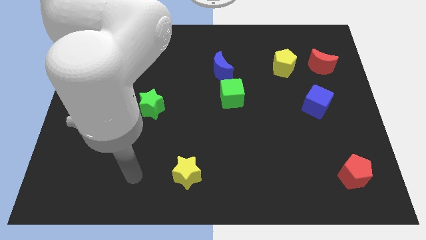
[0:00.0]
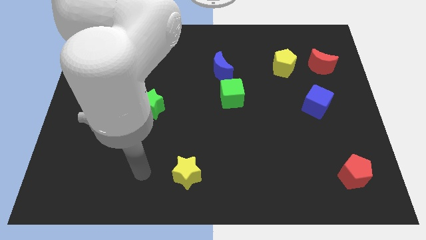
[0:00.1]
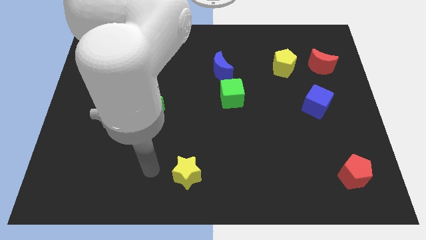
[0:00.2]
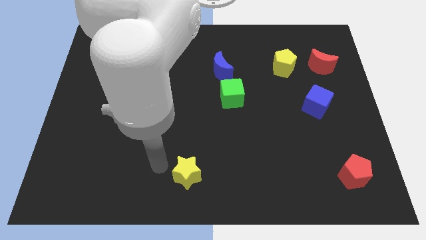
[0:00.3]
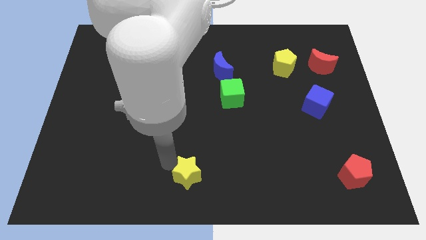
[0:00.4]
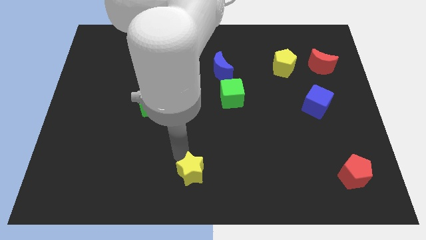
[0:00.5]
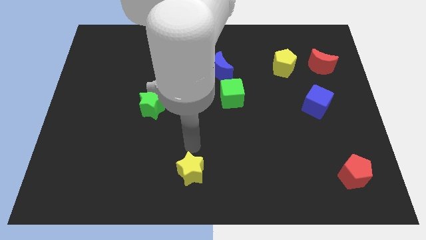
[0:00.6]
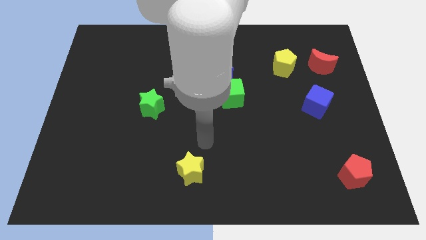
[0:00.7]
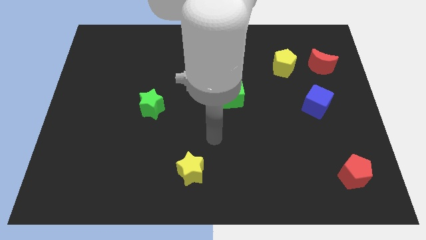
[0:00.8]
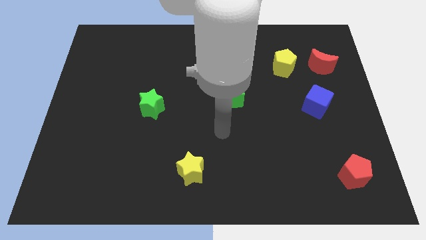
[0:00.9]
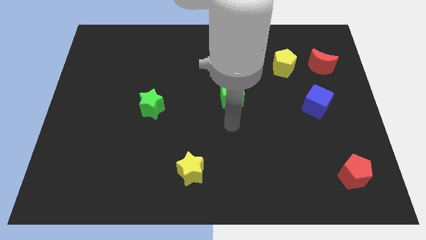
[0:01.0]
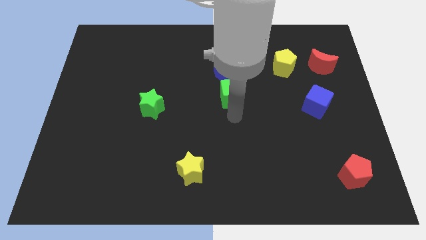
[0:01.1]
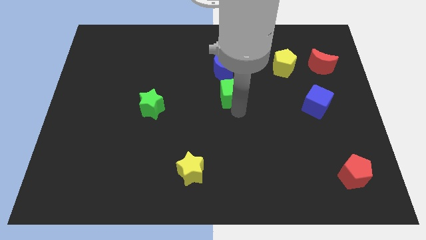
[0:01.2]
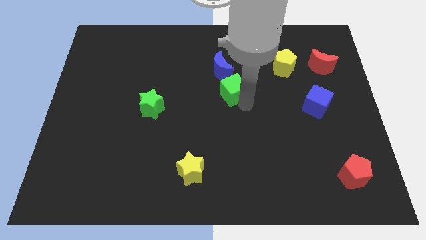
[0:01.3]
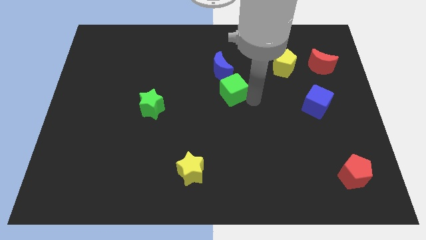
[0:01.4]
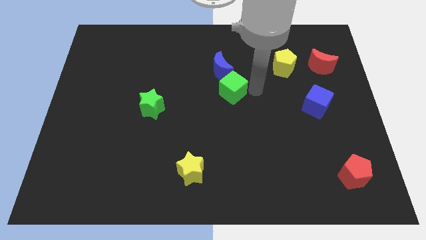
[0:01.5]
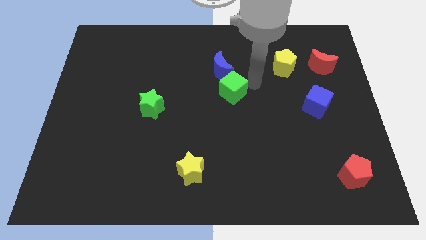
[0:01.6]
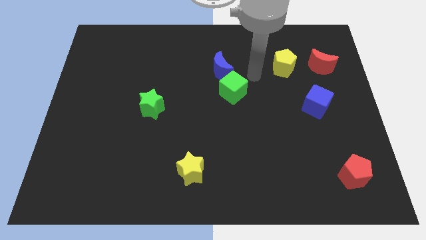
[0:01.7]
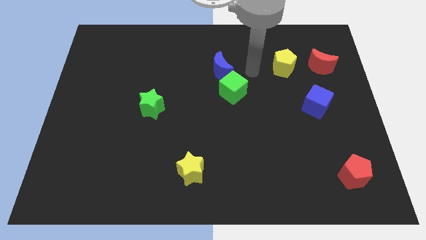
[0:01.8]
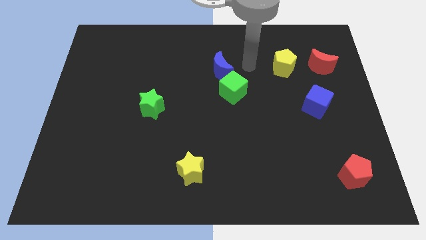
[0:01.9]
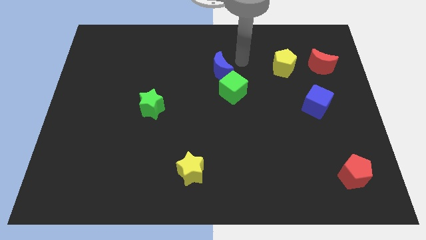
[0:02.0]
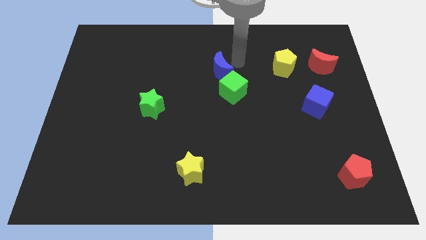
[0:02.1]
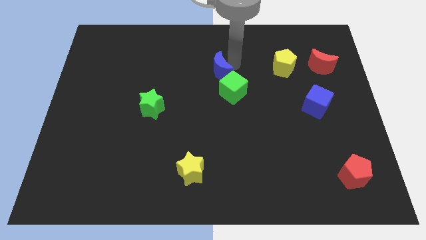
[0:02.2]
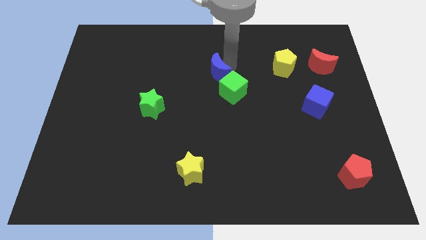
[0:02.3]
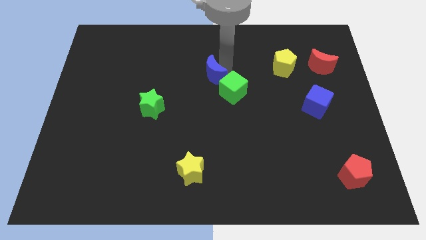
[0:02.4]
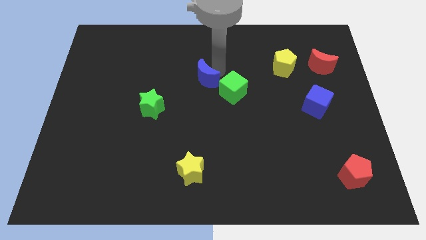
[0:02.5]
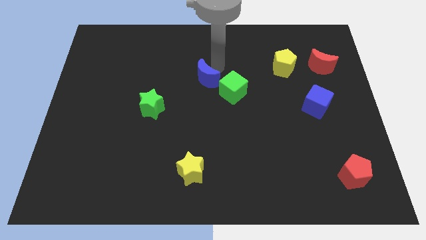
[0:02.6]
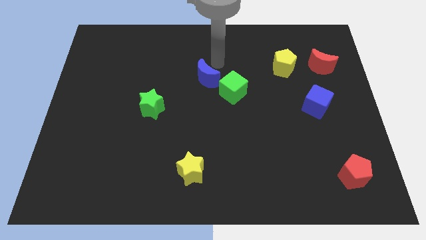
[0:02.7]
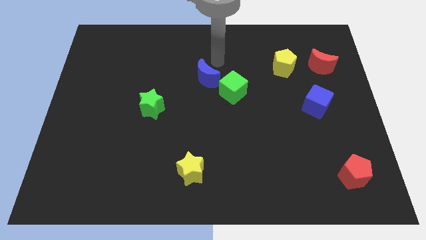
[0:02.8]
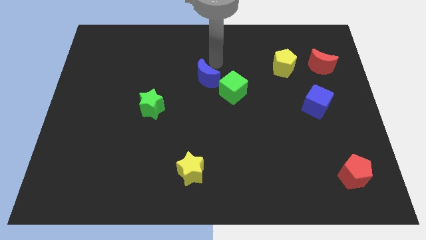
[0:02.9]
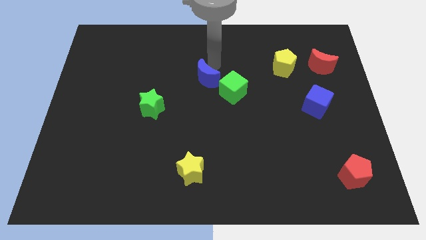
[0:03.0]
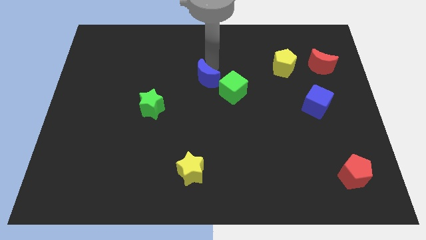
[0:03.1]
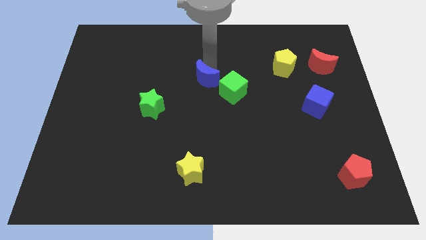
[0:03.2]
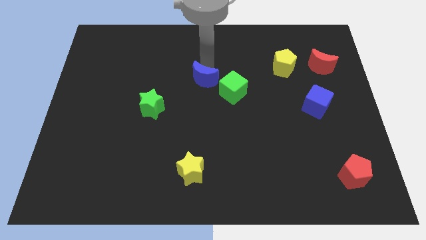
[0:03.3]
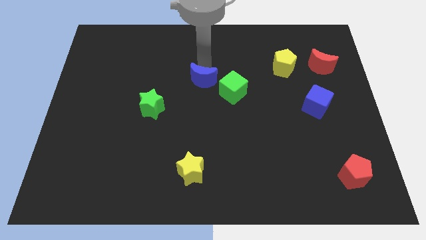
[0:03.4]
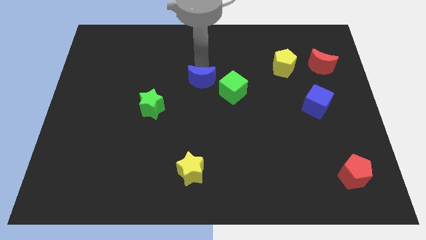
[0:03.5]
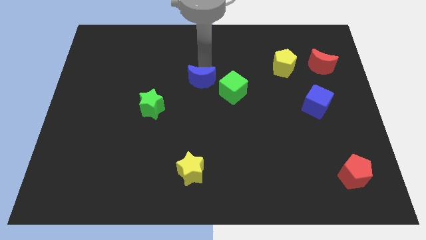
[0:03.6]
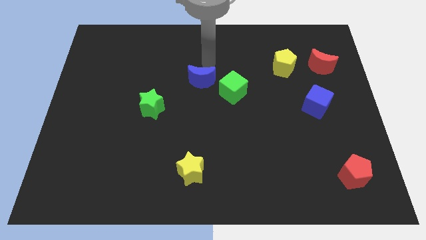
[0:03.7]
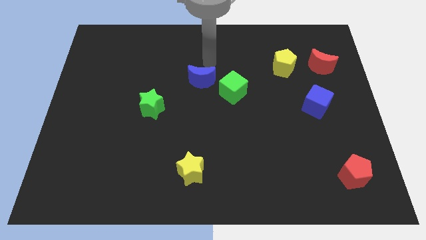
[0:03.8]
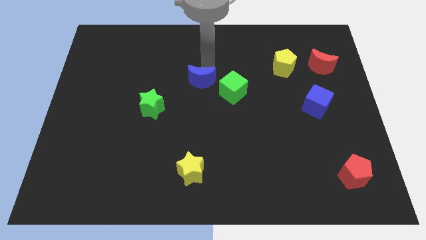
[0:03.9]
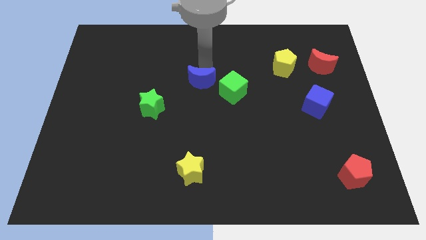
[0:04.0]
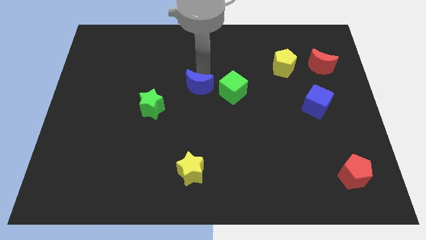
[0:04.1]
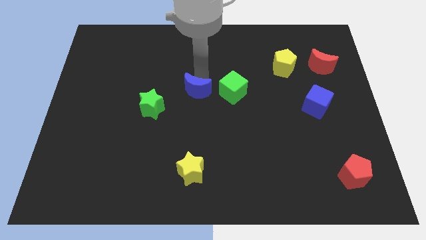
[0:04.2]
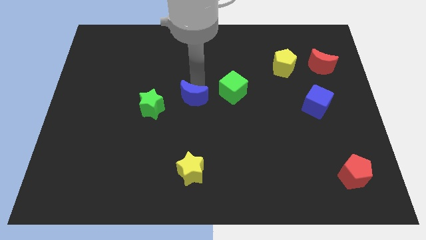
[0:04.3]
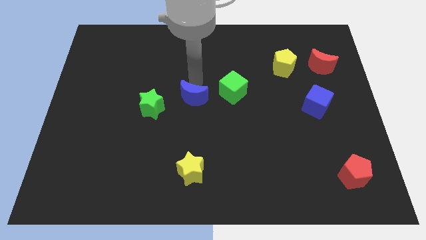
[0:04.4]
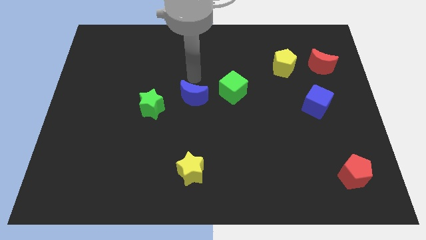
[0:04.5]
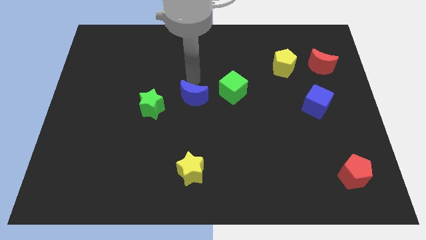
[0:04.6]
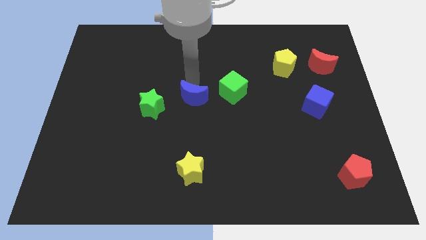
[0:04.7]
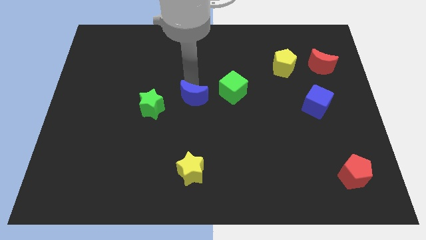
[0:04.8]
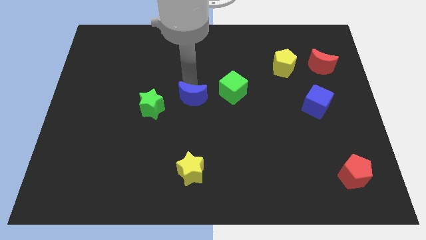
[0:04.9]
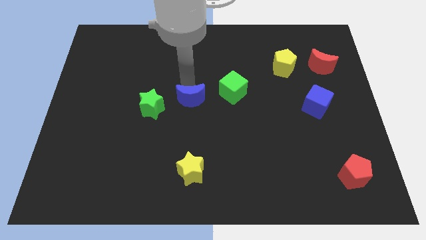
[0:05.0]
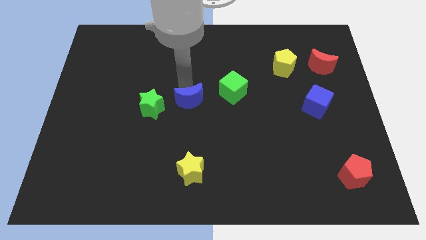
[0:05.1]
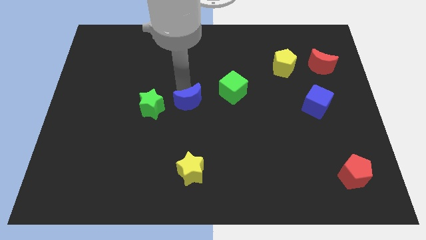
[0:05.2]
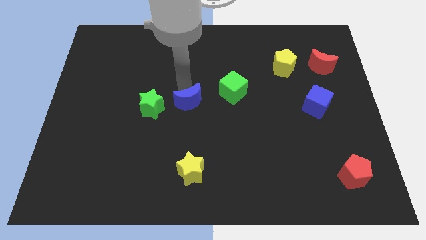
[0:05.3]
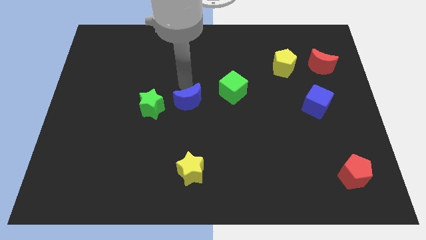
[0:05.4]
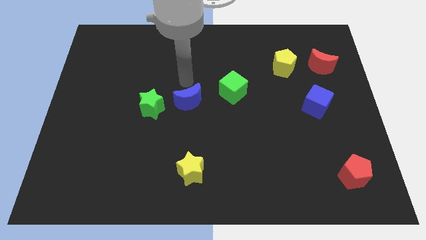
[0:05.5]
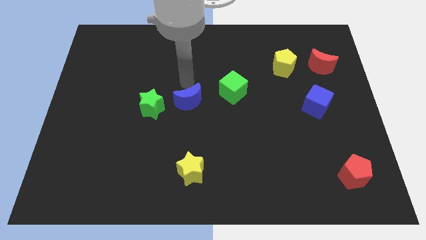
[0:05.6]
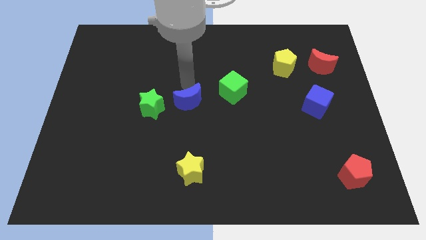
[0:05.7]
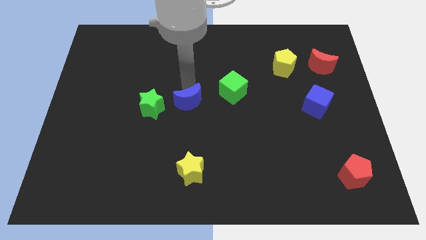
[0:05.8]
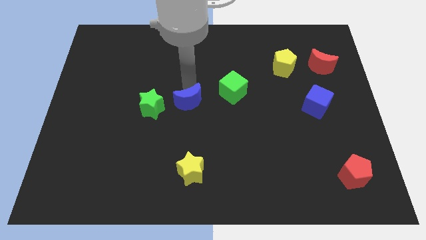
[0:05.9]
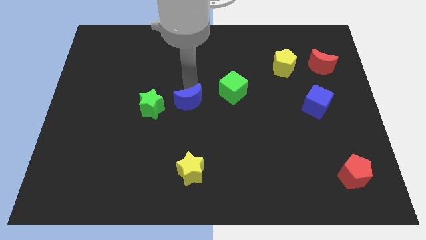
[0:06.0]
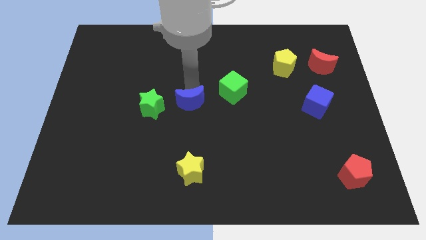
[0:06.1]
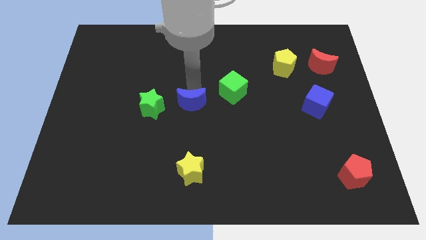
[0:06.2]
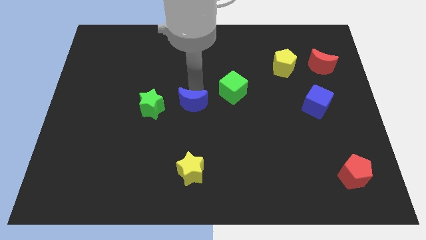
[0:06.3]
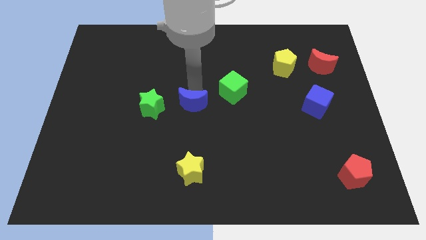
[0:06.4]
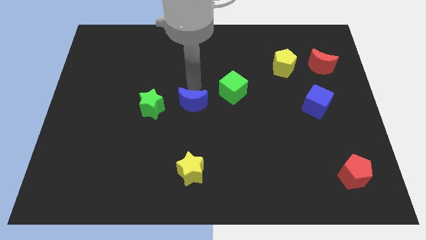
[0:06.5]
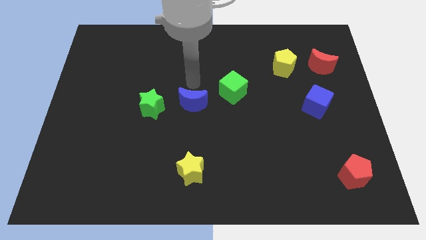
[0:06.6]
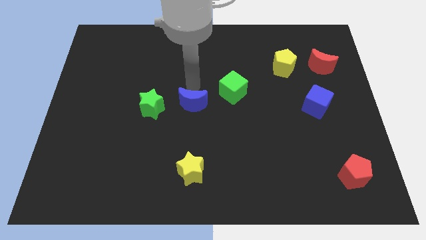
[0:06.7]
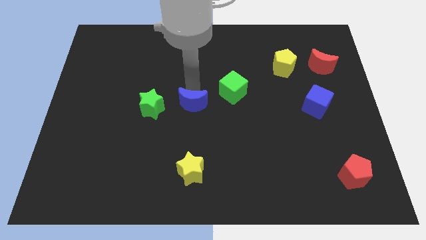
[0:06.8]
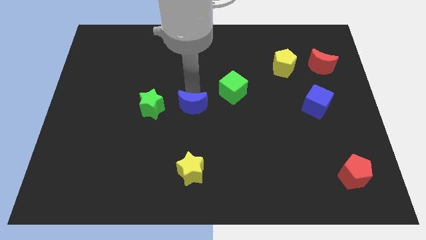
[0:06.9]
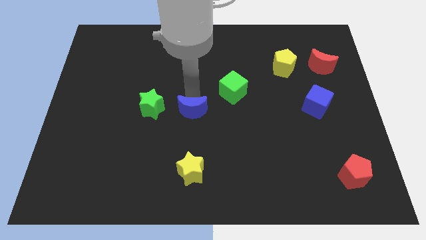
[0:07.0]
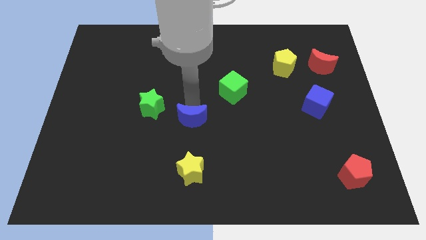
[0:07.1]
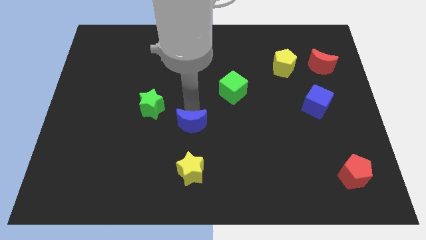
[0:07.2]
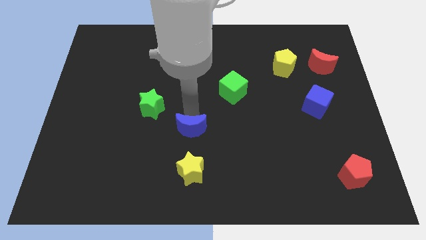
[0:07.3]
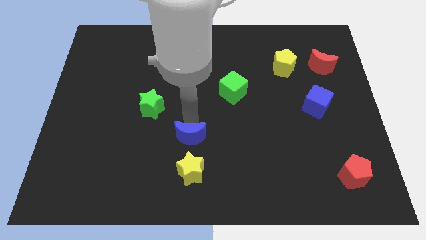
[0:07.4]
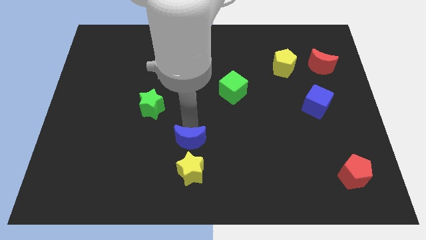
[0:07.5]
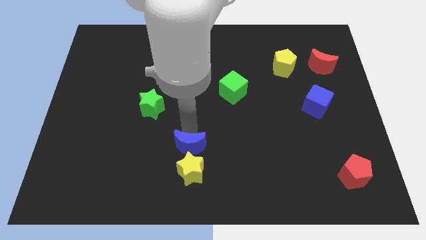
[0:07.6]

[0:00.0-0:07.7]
slide the blue moon to the yellow star
